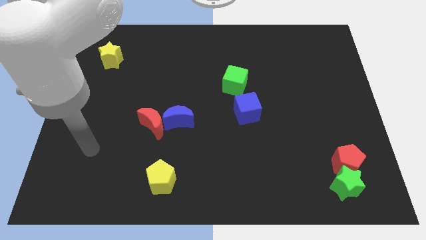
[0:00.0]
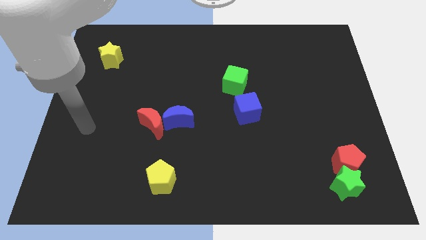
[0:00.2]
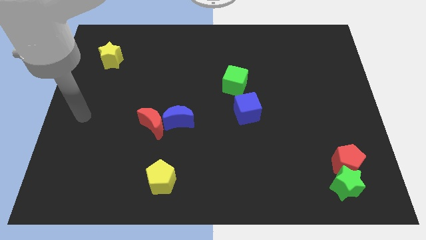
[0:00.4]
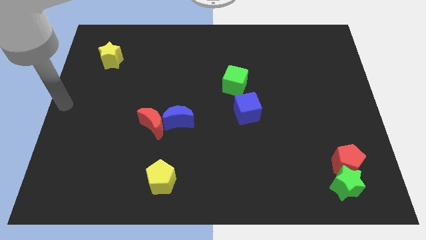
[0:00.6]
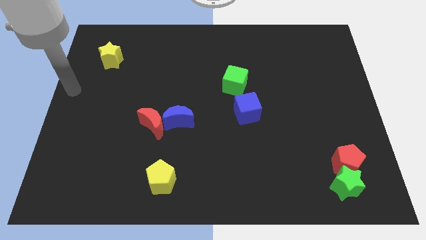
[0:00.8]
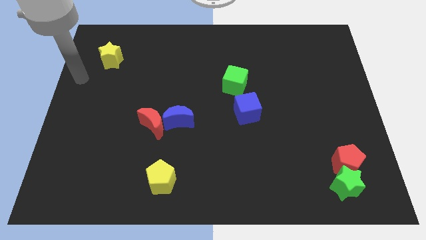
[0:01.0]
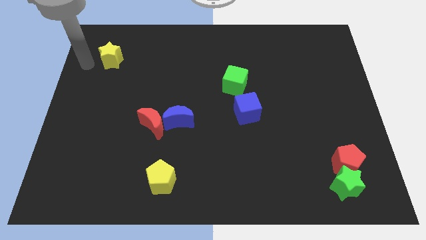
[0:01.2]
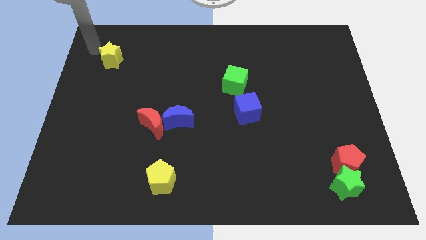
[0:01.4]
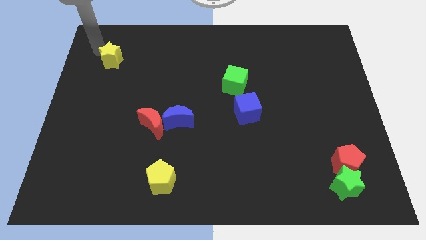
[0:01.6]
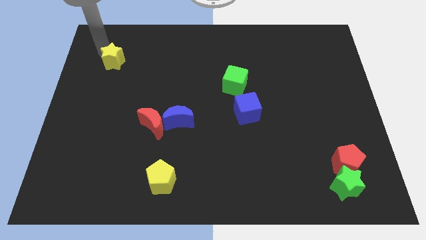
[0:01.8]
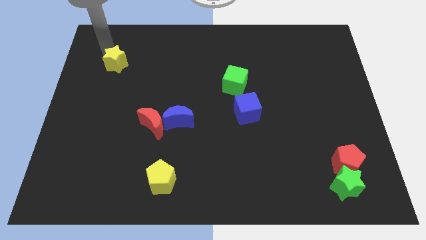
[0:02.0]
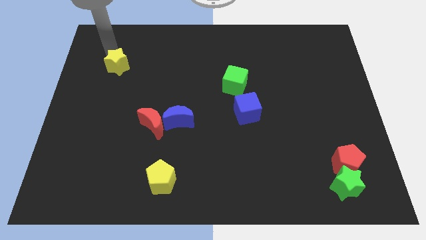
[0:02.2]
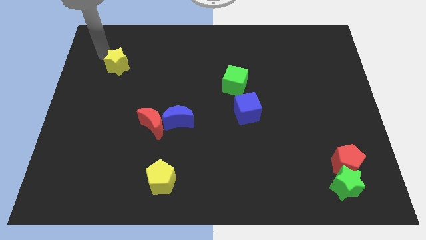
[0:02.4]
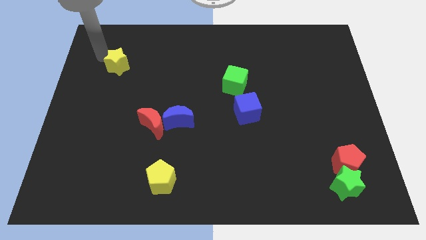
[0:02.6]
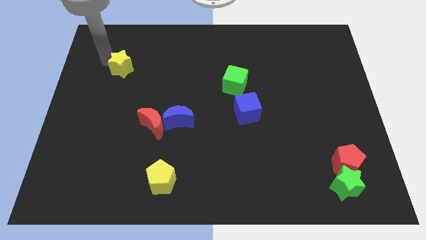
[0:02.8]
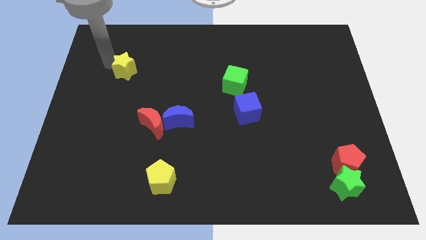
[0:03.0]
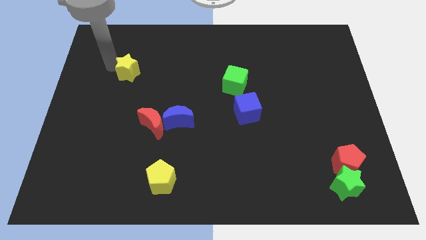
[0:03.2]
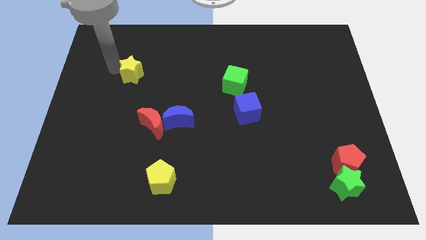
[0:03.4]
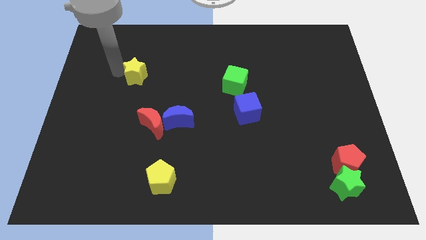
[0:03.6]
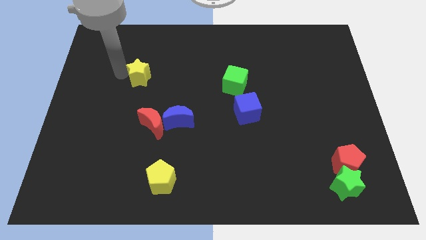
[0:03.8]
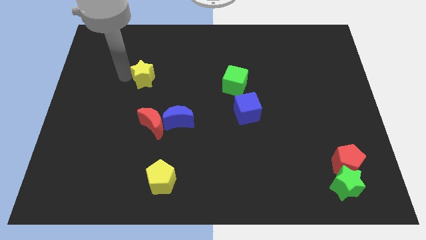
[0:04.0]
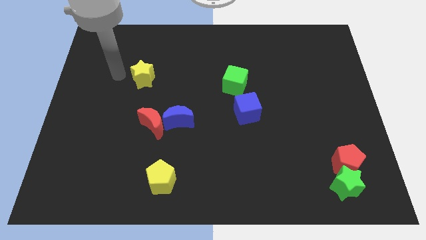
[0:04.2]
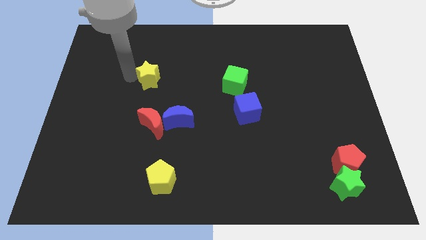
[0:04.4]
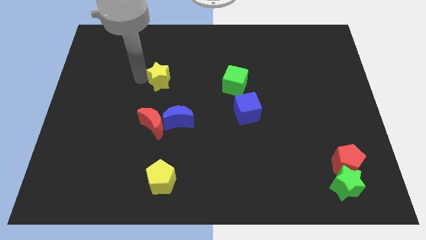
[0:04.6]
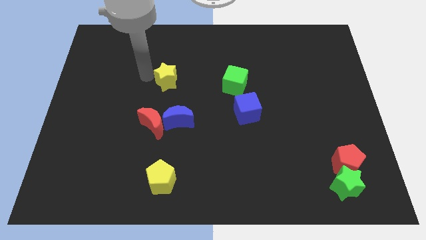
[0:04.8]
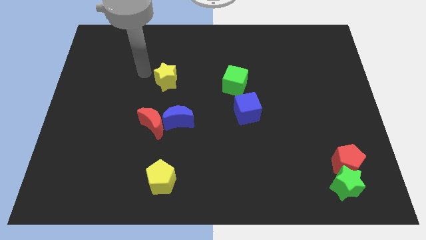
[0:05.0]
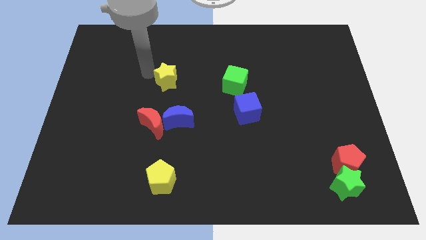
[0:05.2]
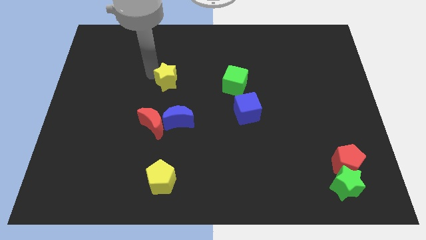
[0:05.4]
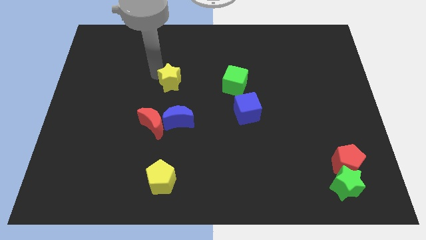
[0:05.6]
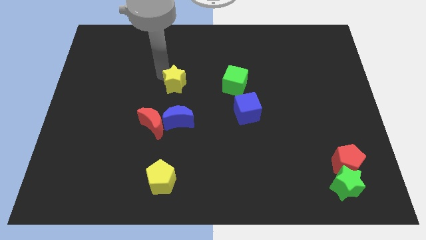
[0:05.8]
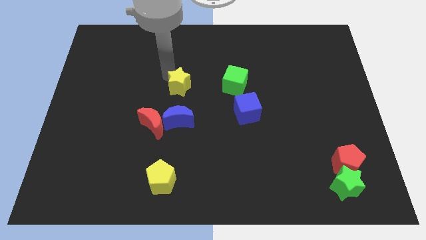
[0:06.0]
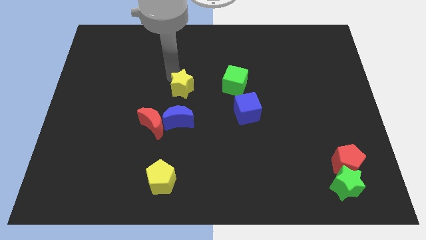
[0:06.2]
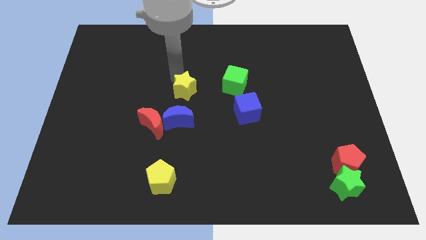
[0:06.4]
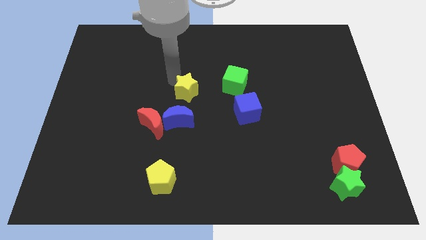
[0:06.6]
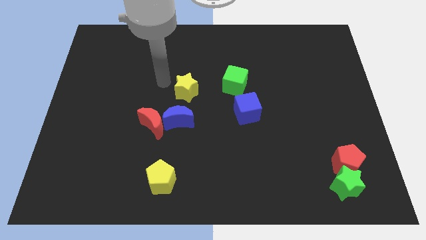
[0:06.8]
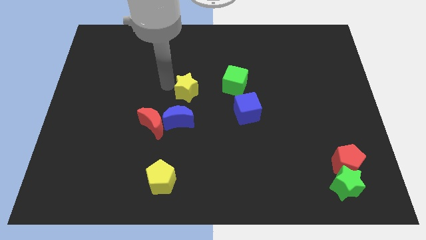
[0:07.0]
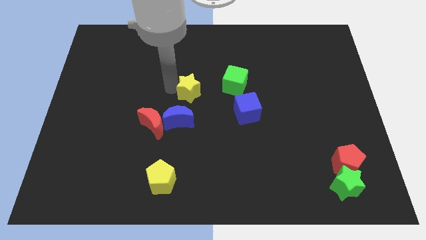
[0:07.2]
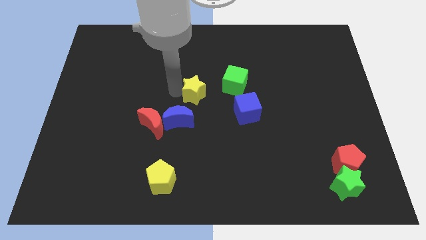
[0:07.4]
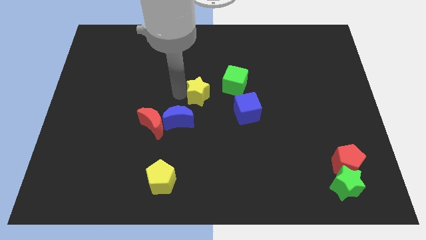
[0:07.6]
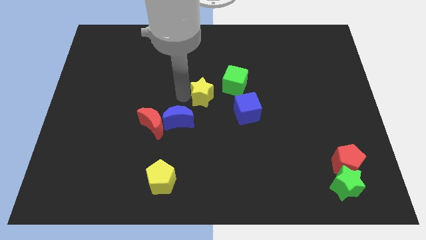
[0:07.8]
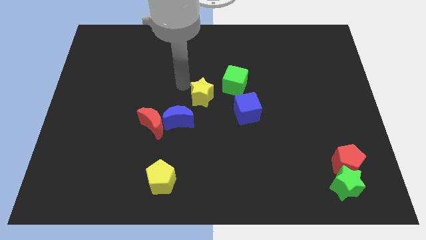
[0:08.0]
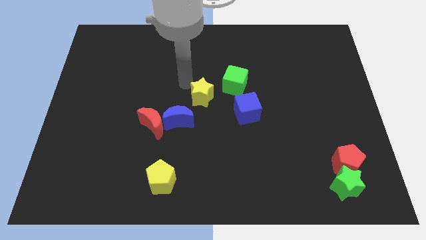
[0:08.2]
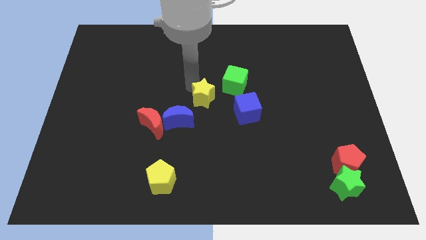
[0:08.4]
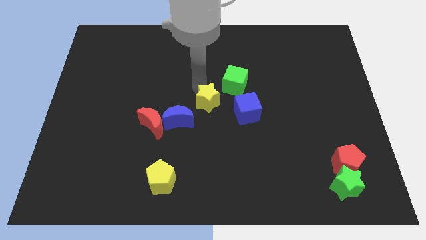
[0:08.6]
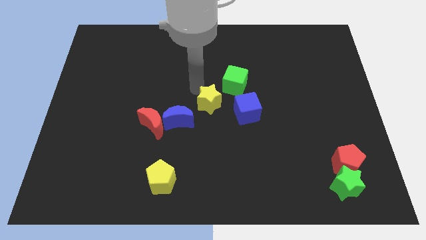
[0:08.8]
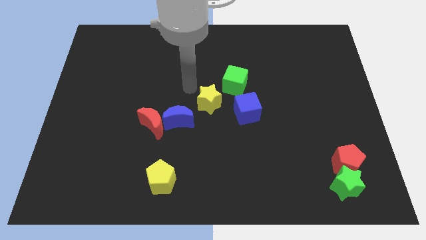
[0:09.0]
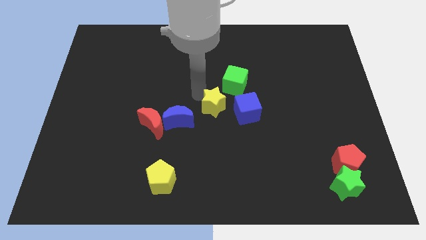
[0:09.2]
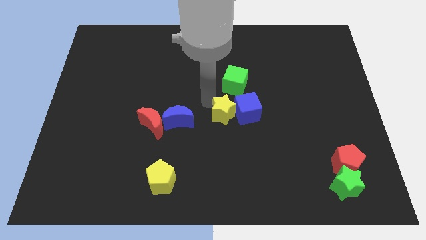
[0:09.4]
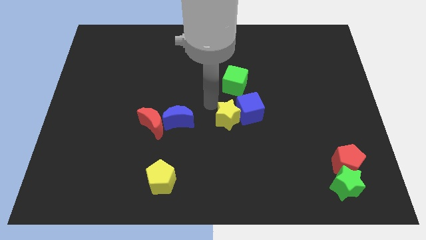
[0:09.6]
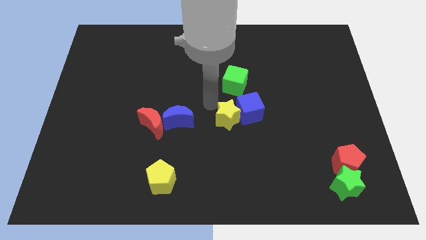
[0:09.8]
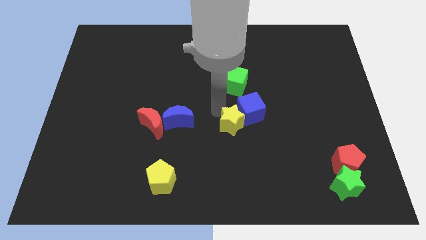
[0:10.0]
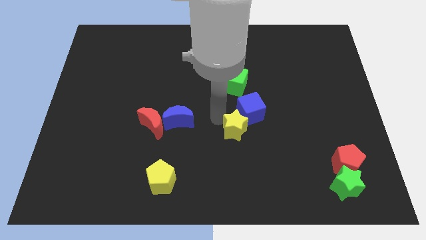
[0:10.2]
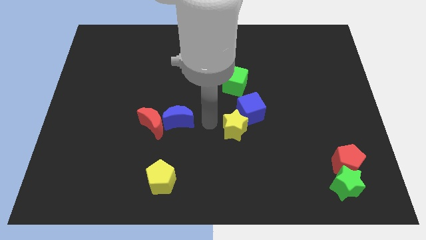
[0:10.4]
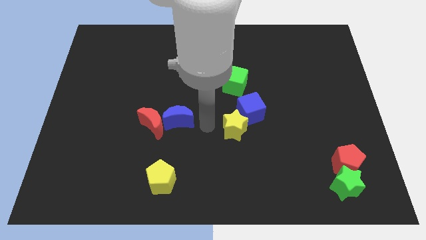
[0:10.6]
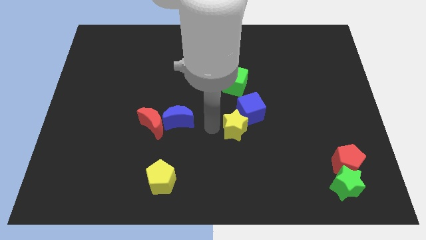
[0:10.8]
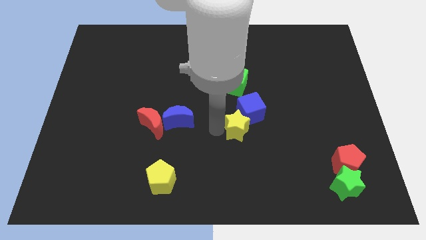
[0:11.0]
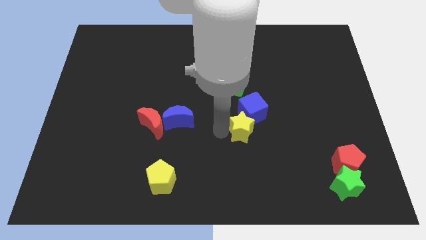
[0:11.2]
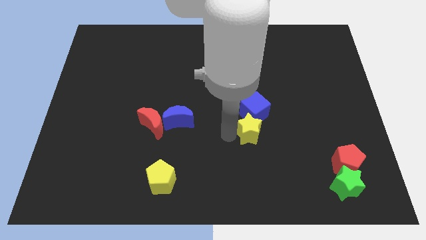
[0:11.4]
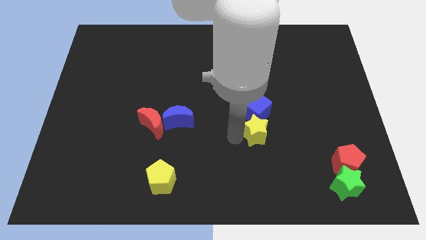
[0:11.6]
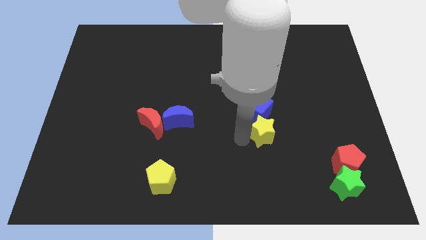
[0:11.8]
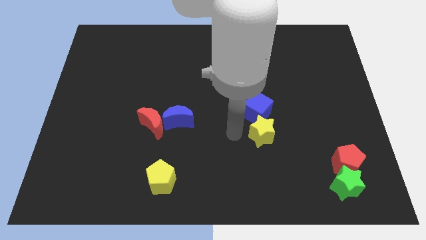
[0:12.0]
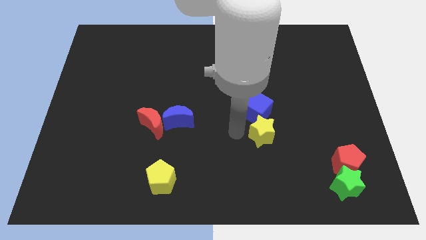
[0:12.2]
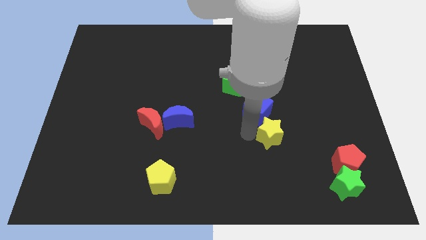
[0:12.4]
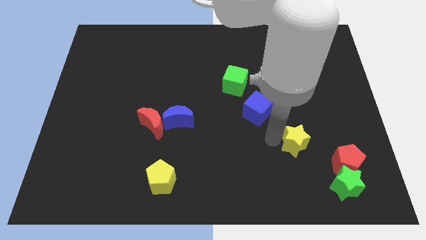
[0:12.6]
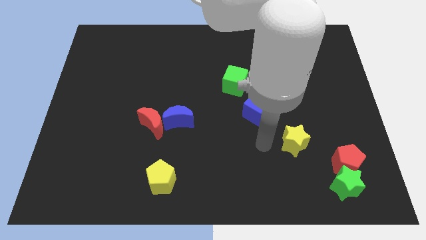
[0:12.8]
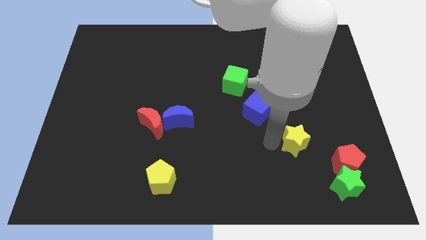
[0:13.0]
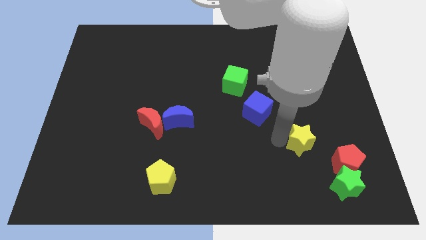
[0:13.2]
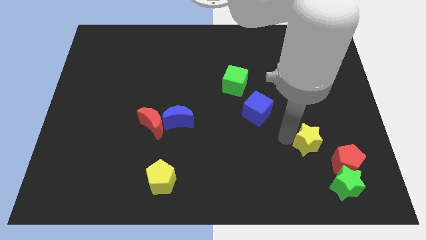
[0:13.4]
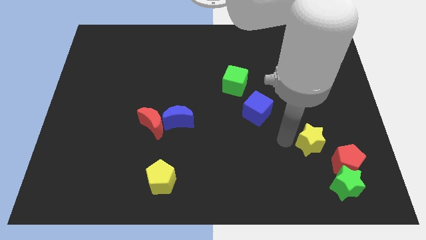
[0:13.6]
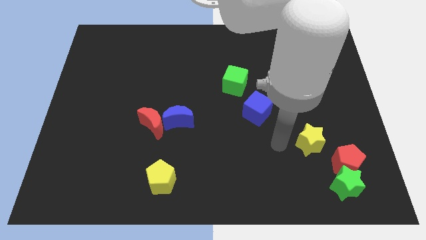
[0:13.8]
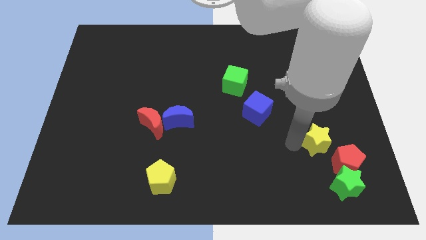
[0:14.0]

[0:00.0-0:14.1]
put the yellow star to the top side of the green star

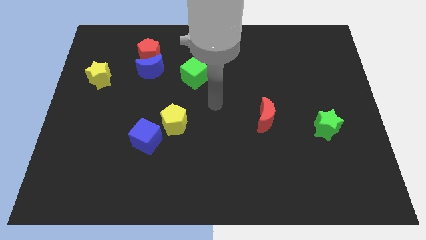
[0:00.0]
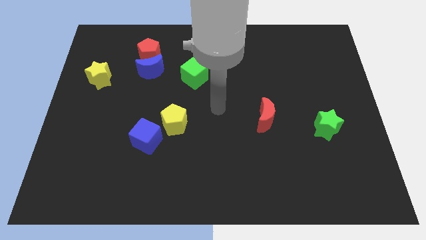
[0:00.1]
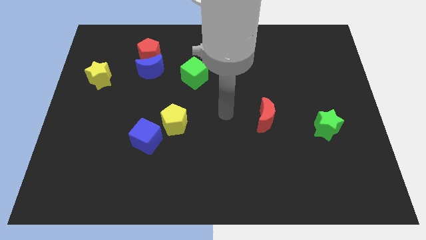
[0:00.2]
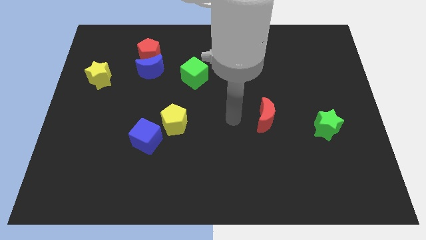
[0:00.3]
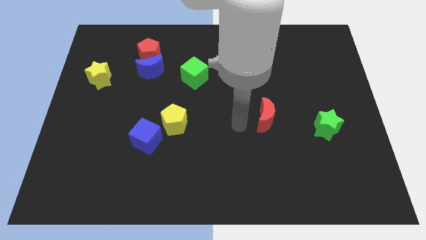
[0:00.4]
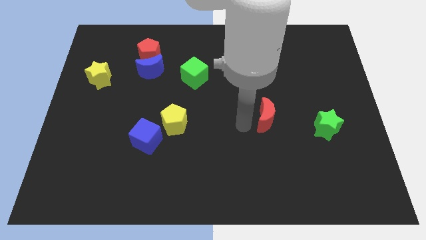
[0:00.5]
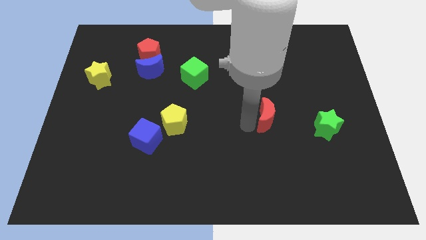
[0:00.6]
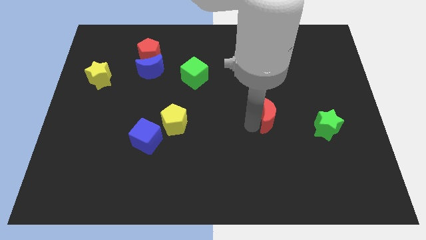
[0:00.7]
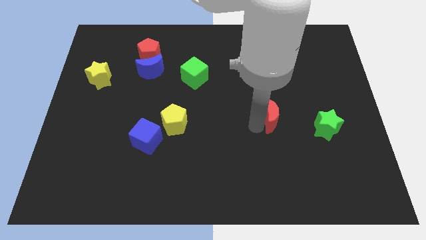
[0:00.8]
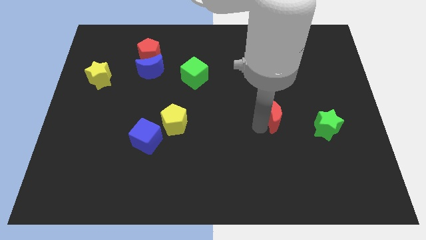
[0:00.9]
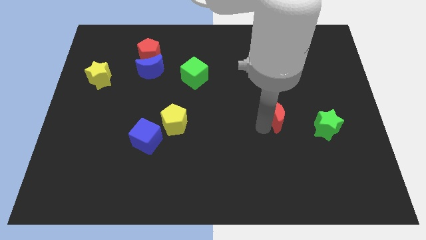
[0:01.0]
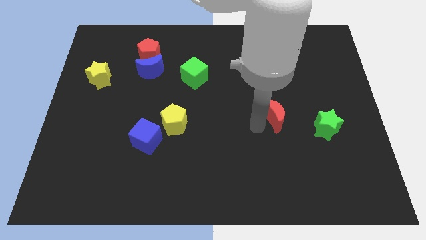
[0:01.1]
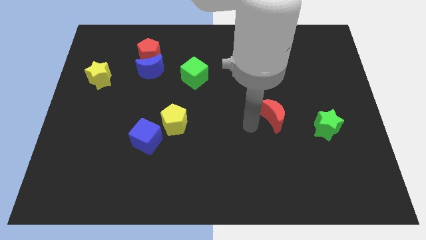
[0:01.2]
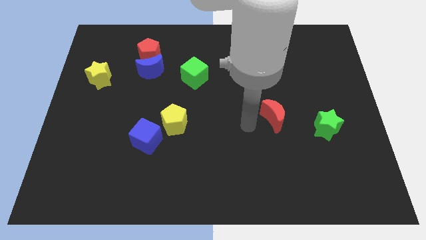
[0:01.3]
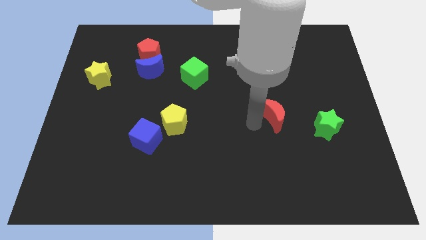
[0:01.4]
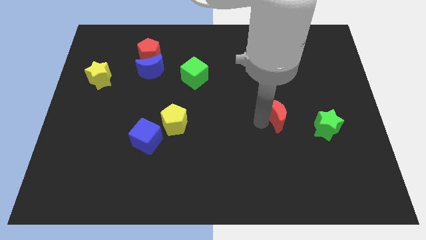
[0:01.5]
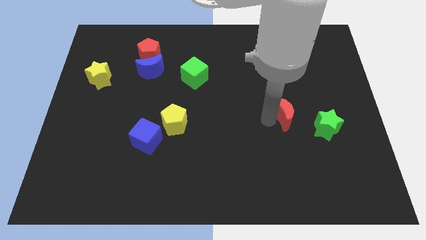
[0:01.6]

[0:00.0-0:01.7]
slide the red moon diagonally up and to the left of the green star
